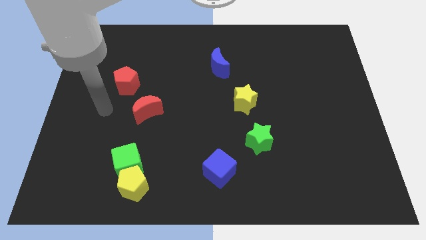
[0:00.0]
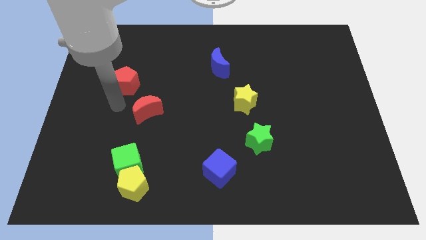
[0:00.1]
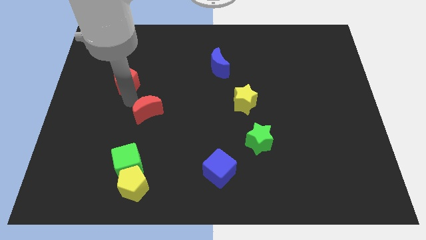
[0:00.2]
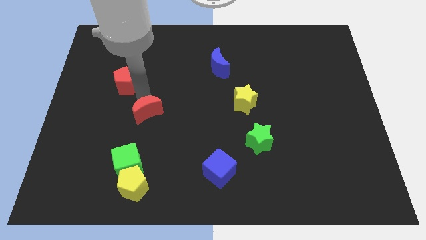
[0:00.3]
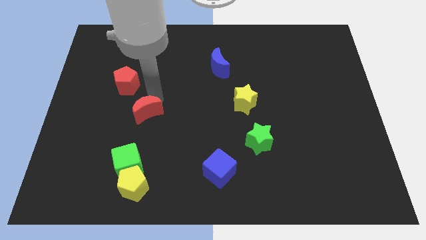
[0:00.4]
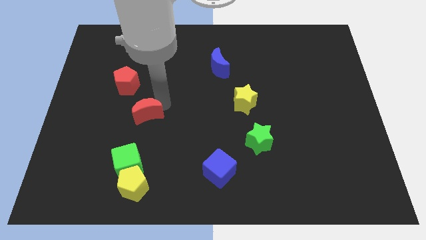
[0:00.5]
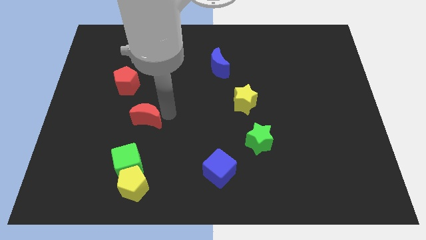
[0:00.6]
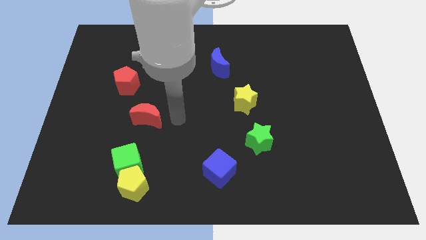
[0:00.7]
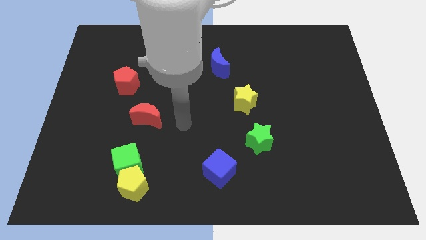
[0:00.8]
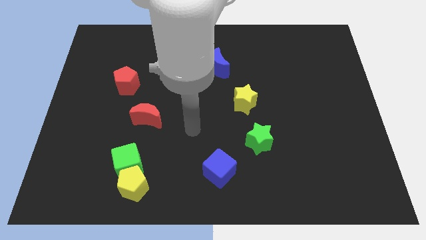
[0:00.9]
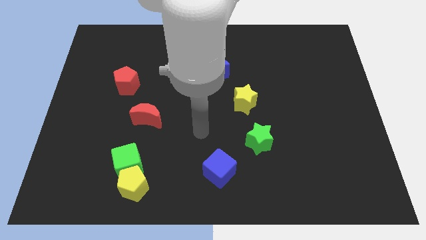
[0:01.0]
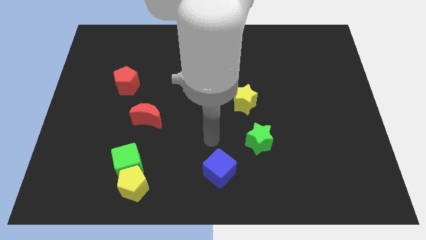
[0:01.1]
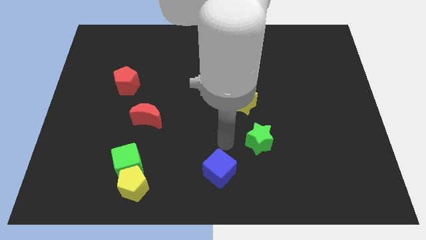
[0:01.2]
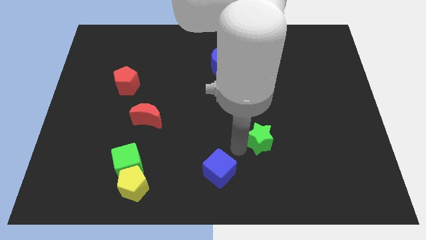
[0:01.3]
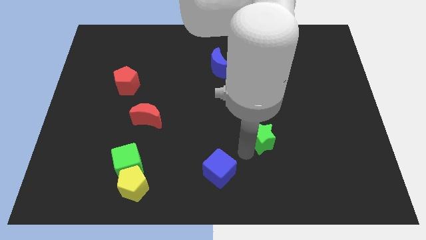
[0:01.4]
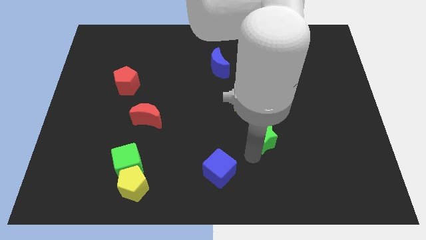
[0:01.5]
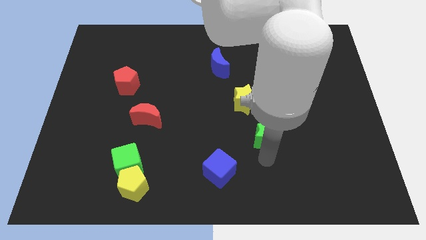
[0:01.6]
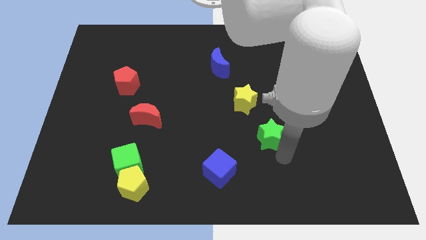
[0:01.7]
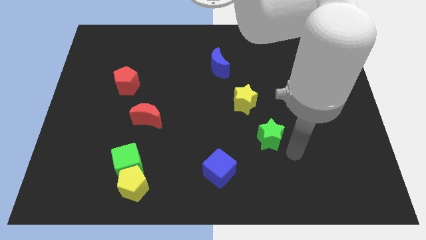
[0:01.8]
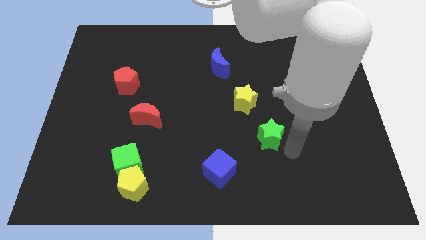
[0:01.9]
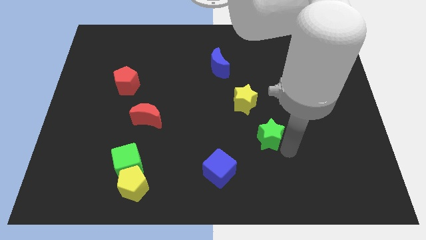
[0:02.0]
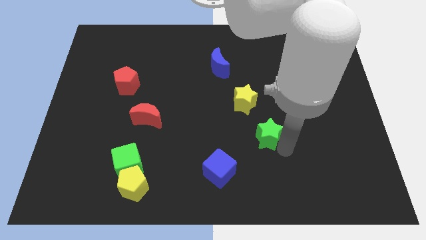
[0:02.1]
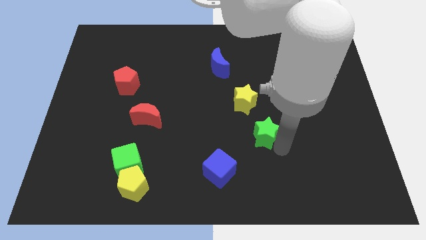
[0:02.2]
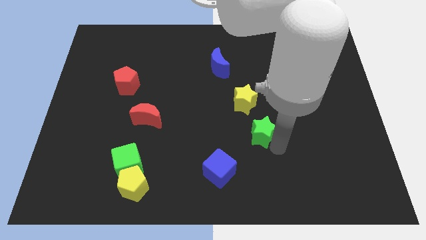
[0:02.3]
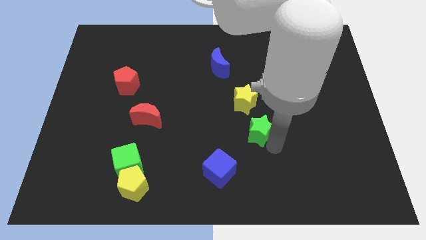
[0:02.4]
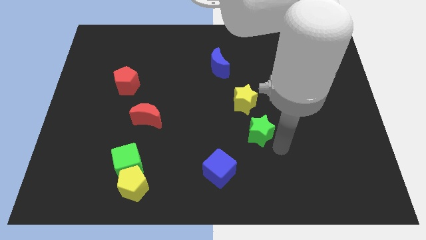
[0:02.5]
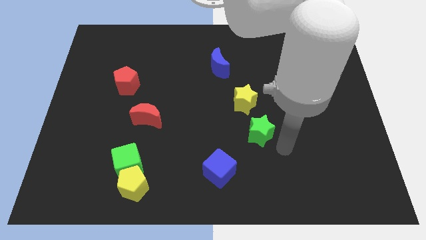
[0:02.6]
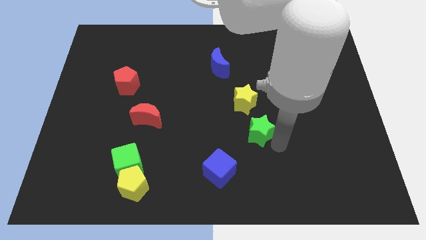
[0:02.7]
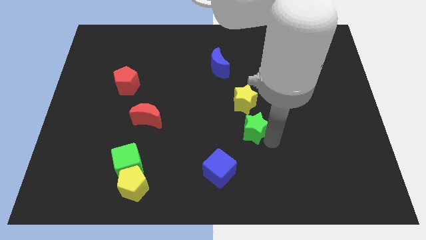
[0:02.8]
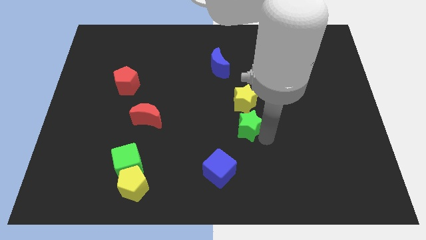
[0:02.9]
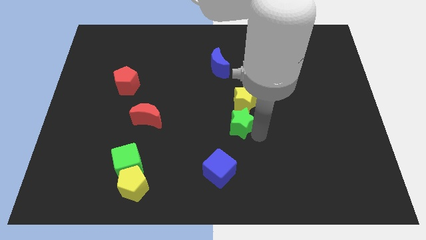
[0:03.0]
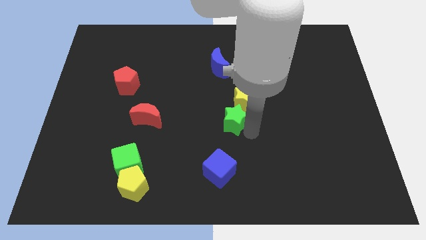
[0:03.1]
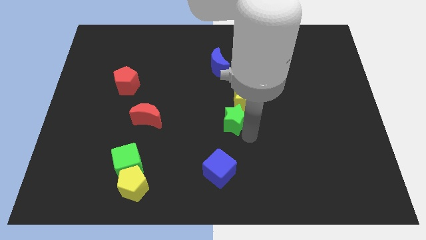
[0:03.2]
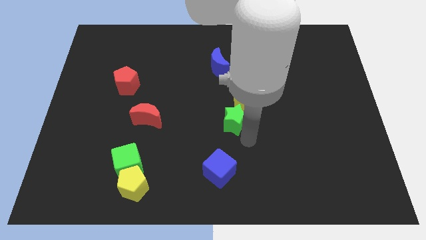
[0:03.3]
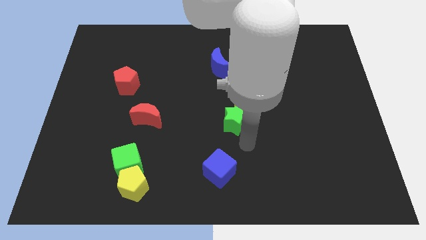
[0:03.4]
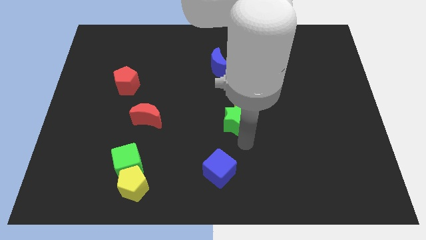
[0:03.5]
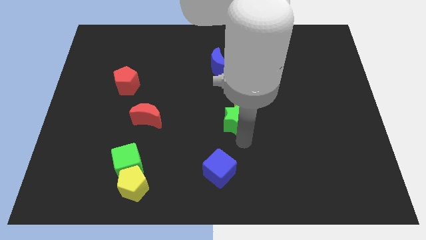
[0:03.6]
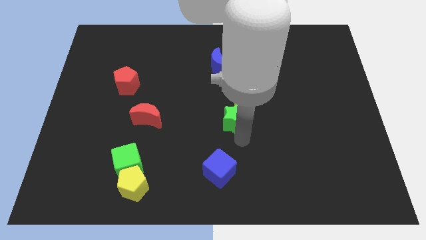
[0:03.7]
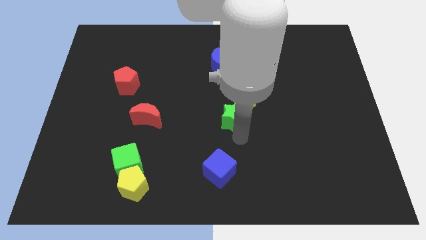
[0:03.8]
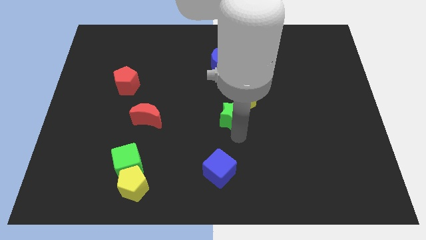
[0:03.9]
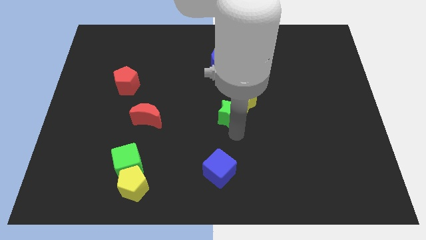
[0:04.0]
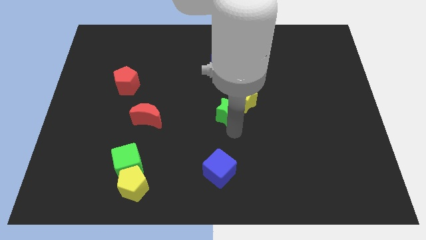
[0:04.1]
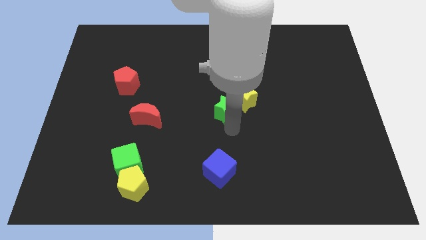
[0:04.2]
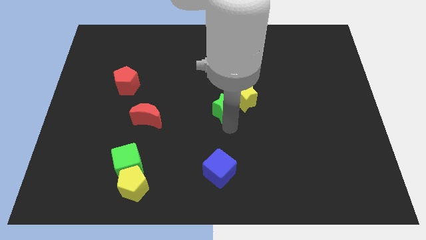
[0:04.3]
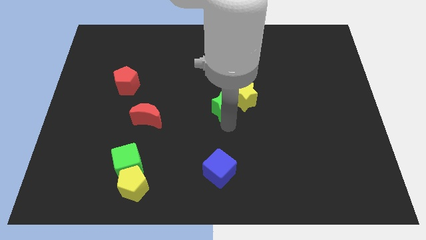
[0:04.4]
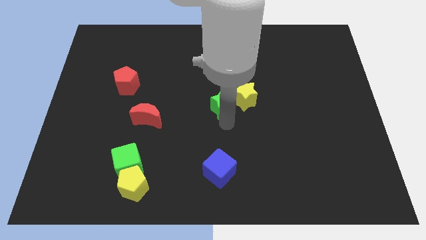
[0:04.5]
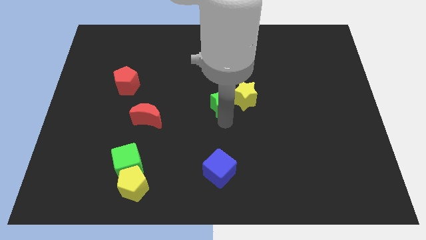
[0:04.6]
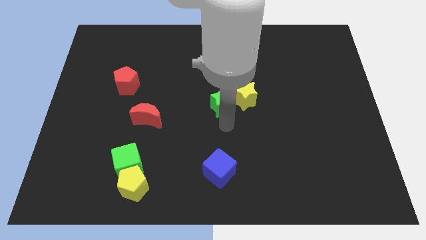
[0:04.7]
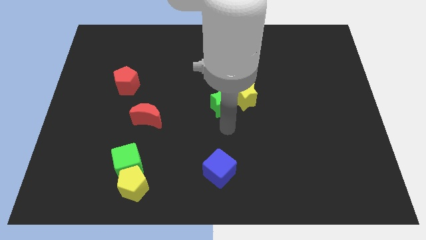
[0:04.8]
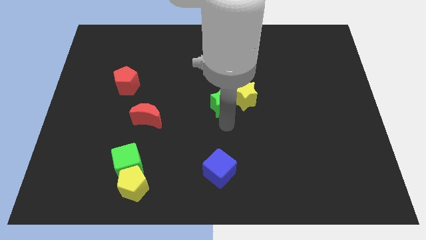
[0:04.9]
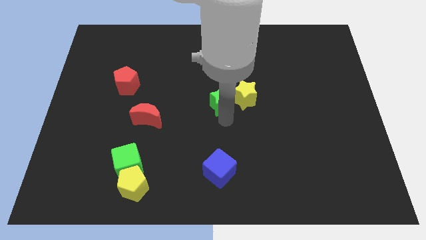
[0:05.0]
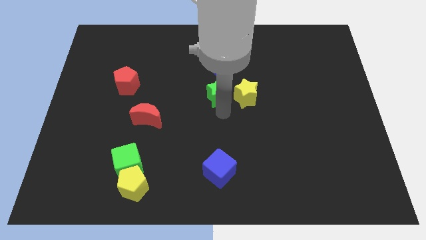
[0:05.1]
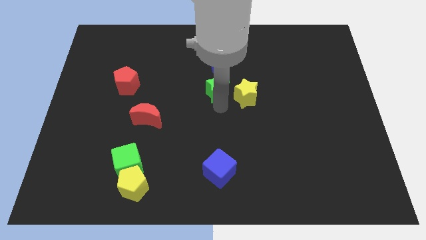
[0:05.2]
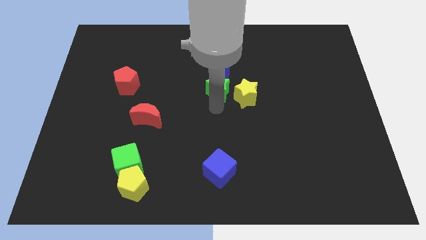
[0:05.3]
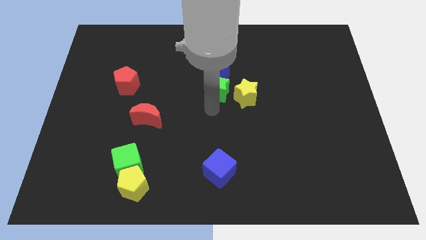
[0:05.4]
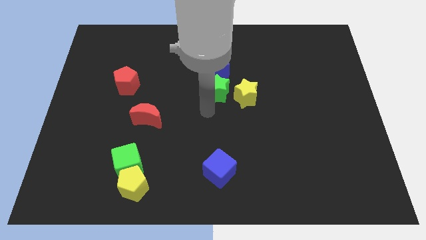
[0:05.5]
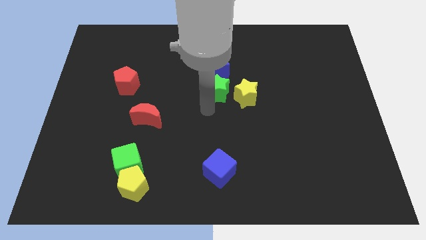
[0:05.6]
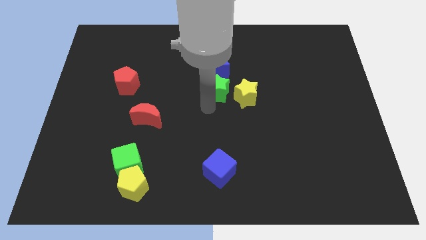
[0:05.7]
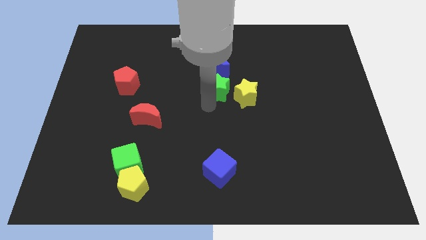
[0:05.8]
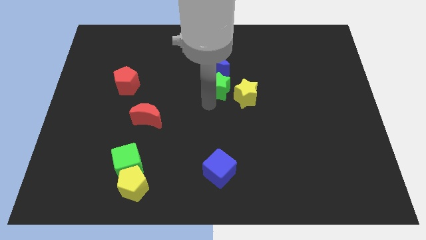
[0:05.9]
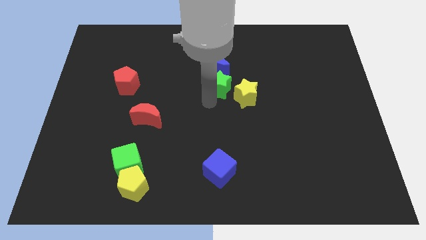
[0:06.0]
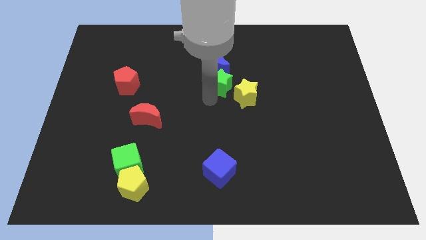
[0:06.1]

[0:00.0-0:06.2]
move the green star next to the blue moon
